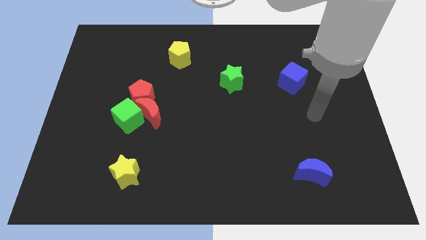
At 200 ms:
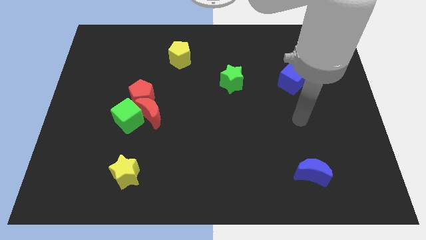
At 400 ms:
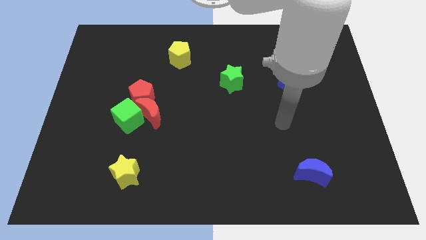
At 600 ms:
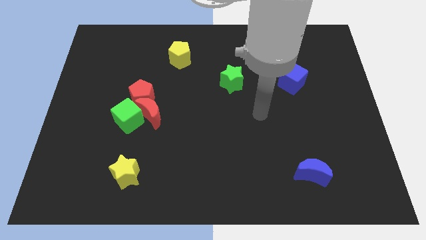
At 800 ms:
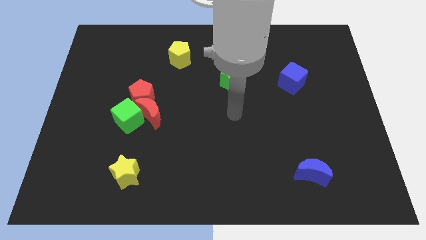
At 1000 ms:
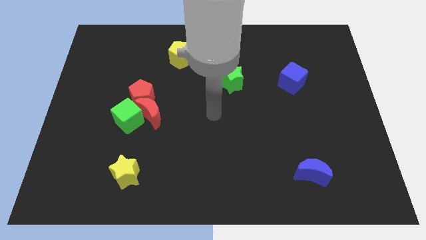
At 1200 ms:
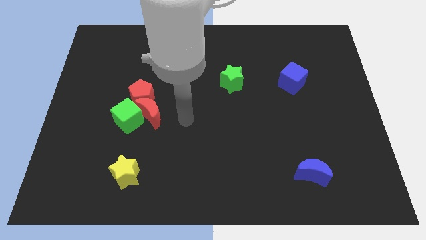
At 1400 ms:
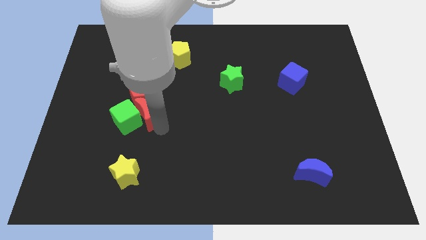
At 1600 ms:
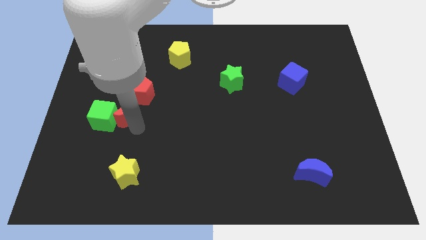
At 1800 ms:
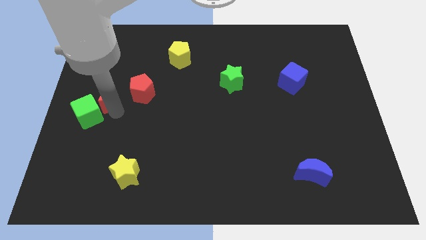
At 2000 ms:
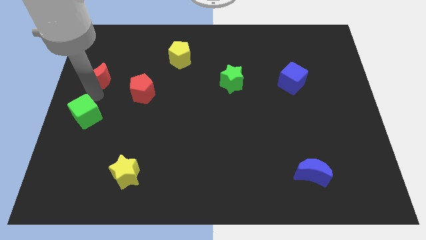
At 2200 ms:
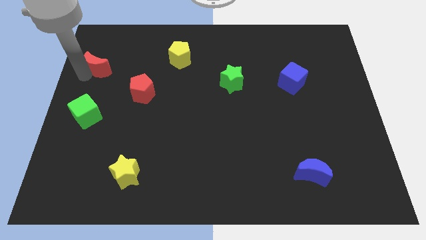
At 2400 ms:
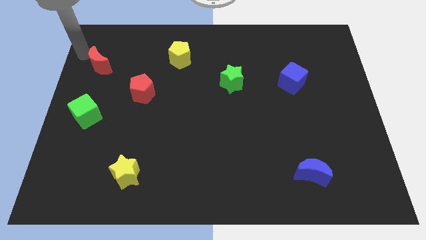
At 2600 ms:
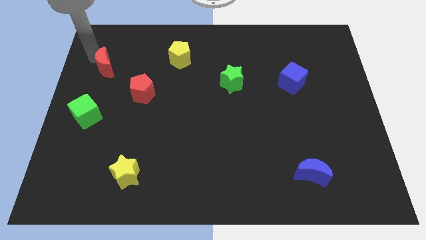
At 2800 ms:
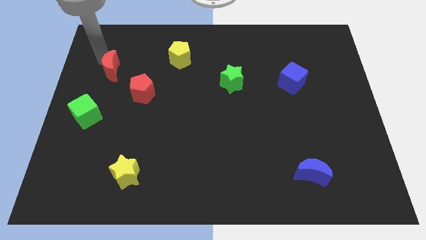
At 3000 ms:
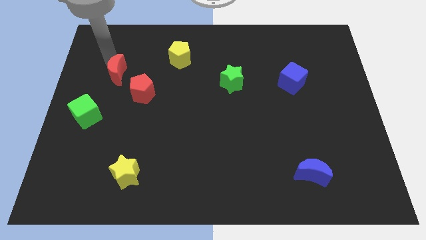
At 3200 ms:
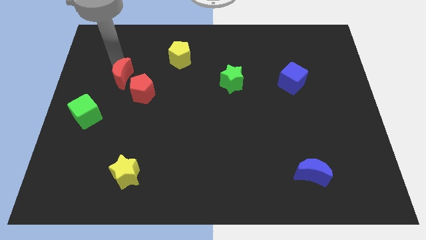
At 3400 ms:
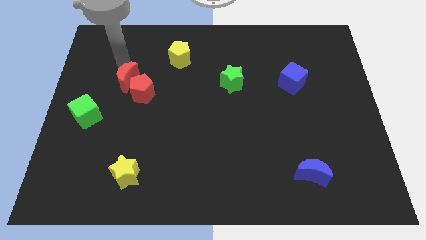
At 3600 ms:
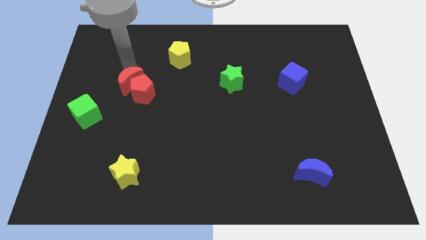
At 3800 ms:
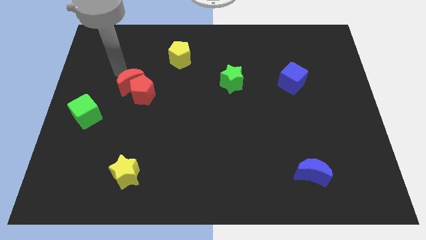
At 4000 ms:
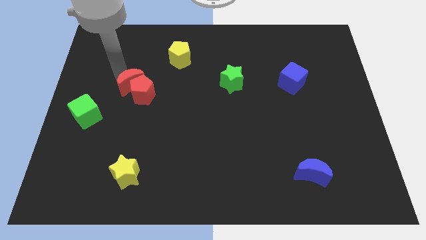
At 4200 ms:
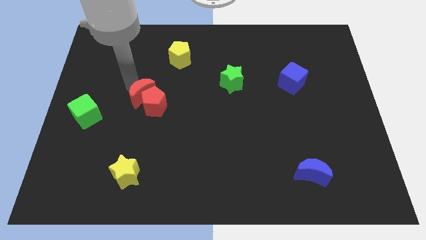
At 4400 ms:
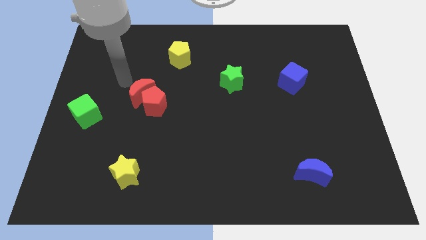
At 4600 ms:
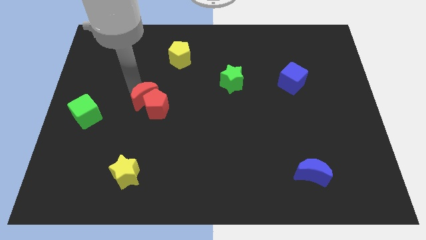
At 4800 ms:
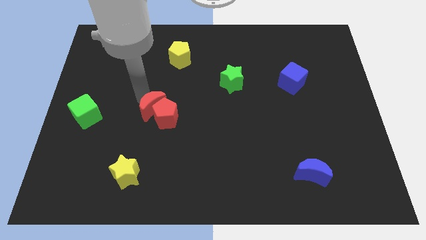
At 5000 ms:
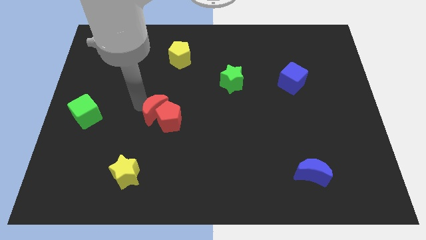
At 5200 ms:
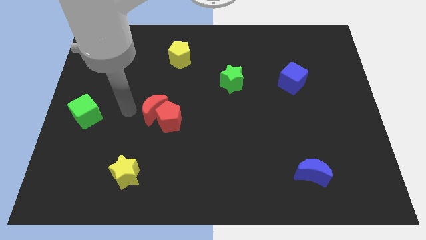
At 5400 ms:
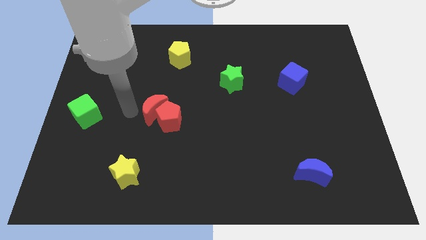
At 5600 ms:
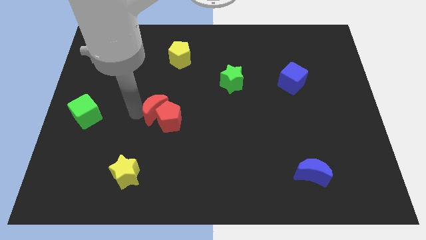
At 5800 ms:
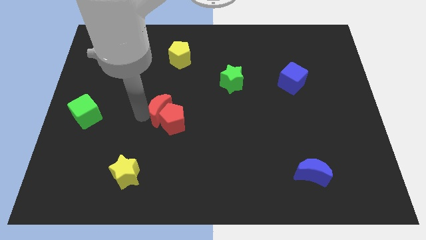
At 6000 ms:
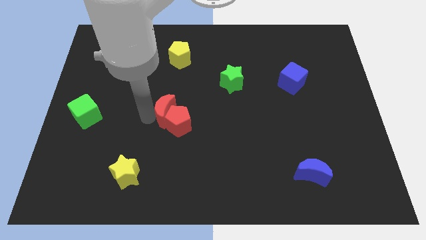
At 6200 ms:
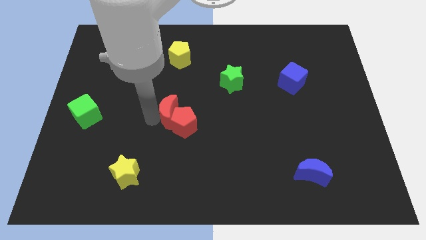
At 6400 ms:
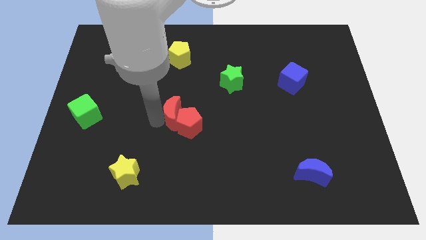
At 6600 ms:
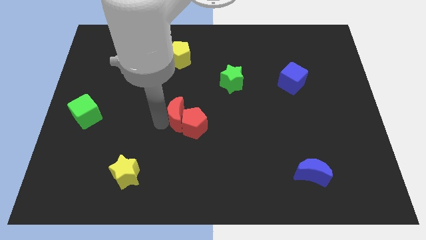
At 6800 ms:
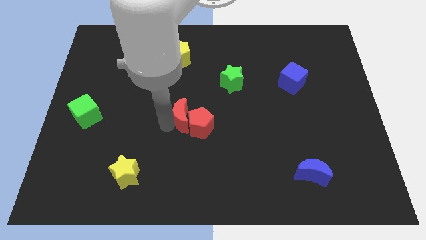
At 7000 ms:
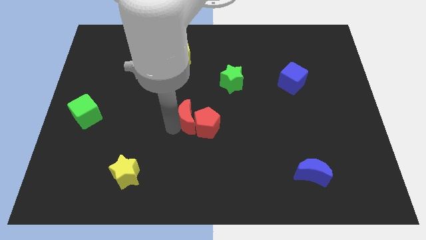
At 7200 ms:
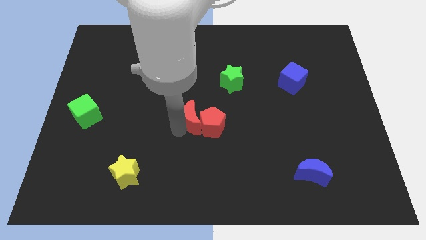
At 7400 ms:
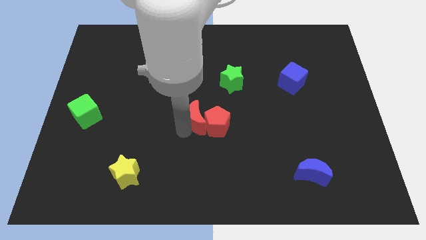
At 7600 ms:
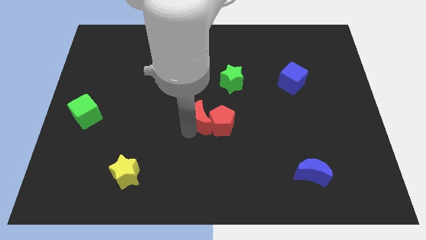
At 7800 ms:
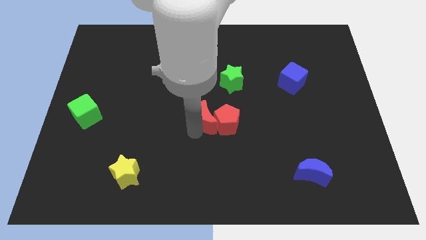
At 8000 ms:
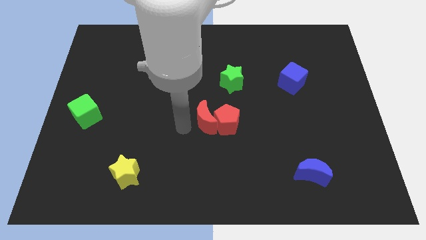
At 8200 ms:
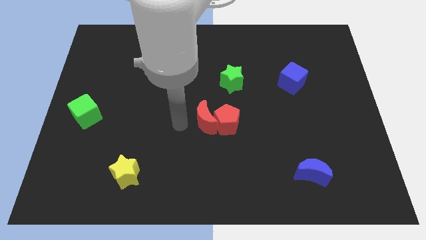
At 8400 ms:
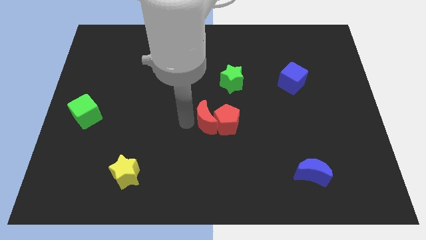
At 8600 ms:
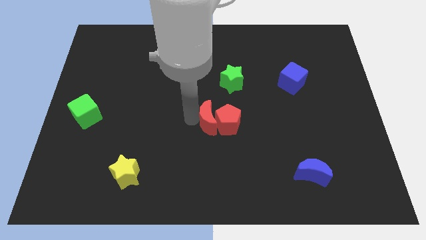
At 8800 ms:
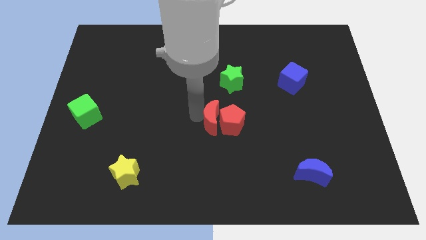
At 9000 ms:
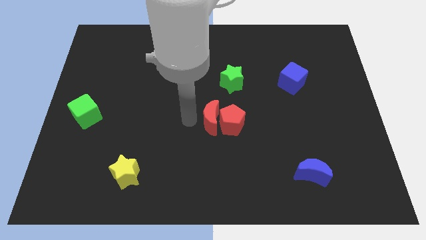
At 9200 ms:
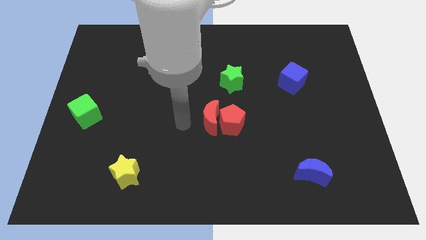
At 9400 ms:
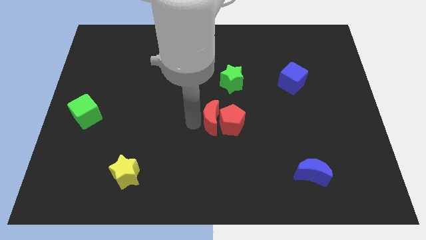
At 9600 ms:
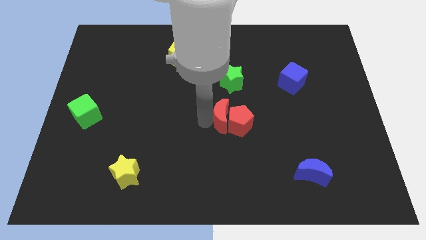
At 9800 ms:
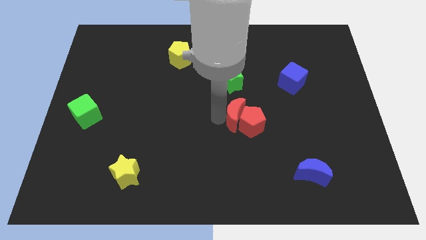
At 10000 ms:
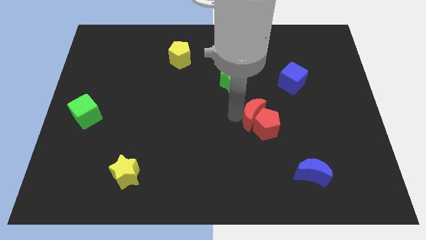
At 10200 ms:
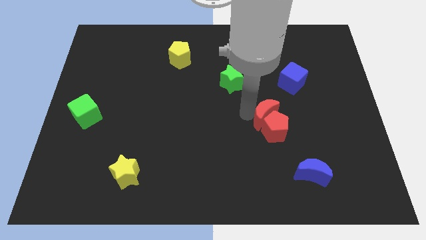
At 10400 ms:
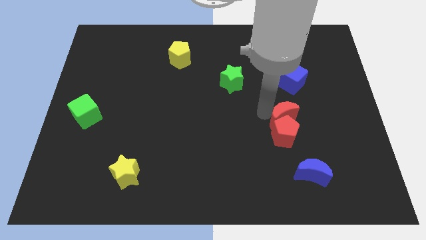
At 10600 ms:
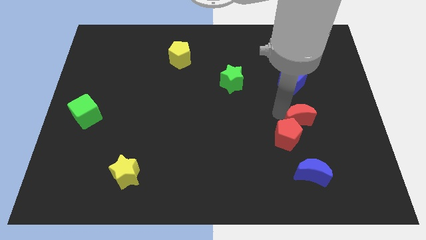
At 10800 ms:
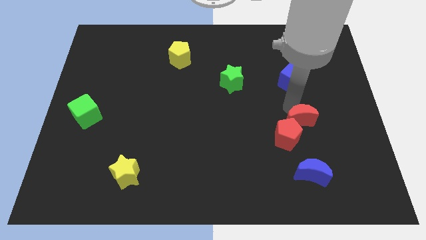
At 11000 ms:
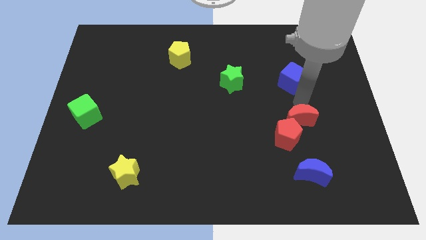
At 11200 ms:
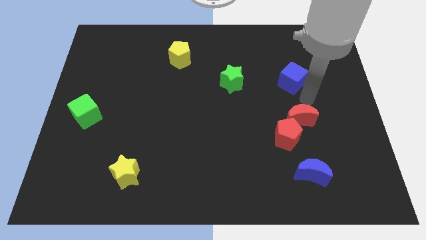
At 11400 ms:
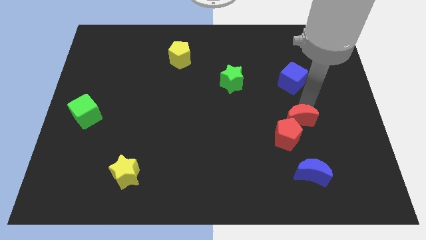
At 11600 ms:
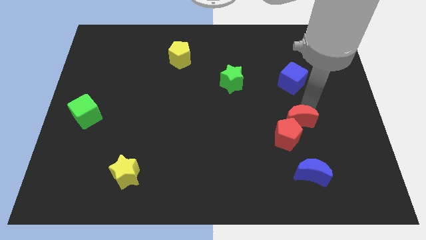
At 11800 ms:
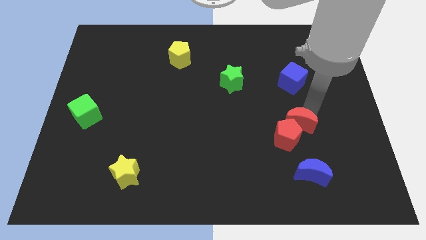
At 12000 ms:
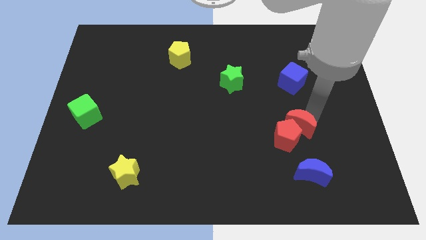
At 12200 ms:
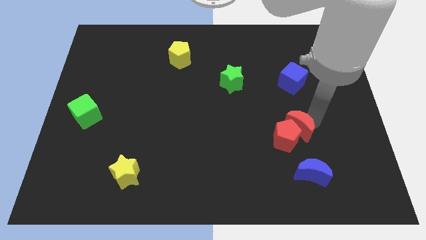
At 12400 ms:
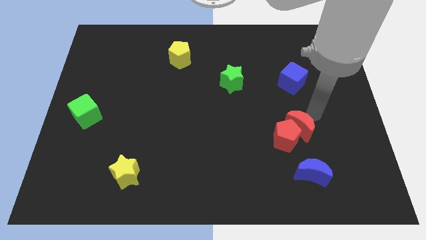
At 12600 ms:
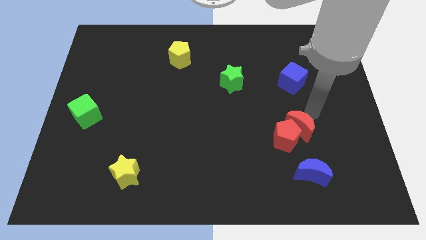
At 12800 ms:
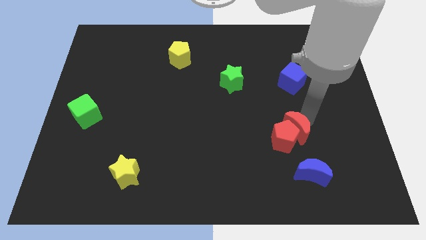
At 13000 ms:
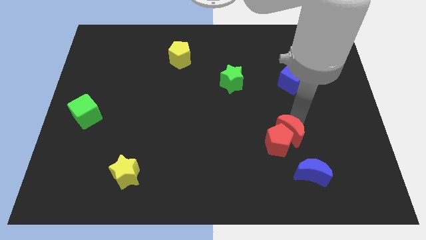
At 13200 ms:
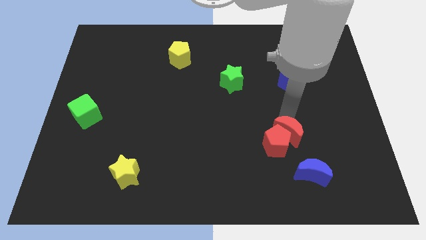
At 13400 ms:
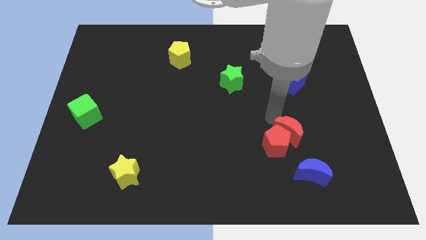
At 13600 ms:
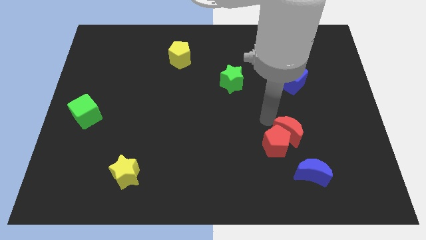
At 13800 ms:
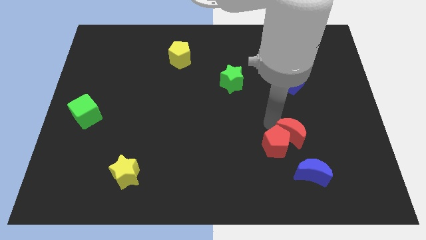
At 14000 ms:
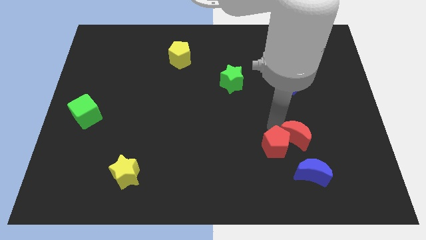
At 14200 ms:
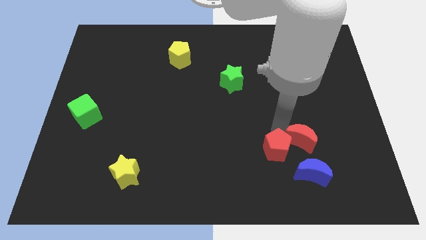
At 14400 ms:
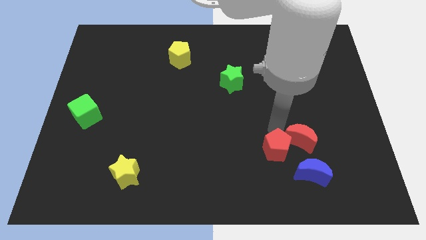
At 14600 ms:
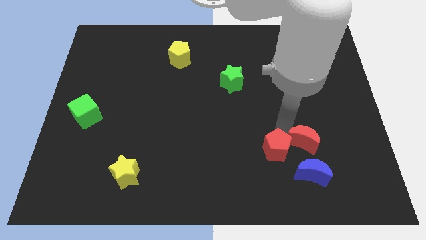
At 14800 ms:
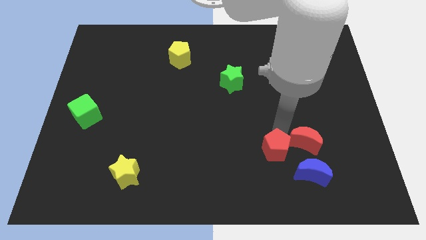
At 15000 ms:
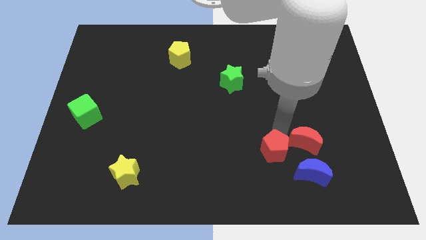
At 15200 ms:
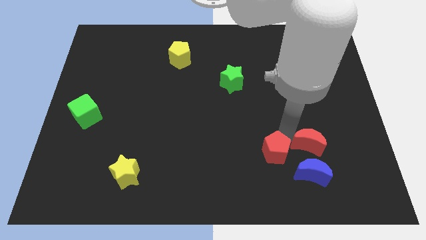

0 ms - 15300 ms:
slide the red moon diagonally up and to the right of the blue moon
